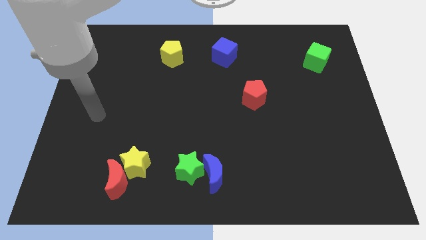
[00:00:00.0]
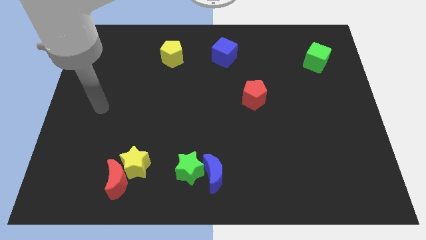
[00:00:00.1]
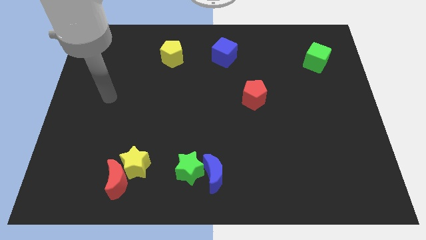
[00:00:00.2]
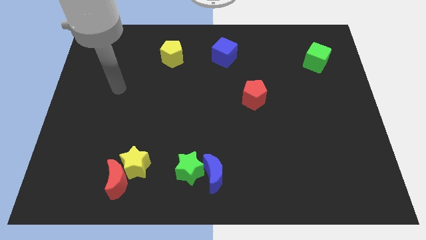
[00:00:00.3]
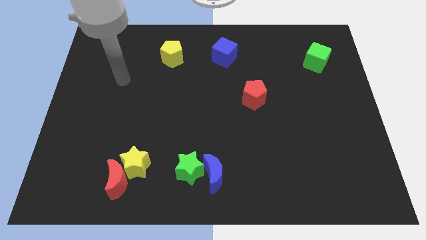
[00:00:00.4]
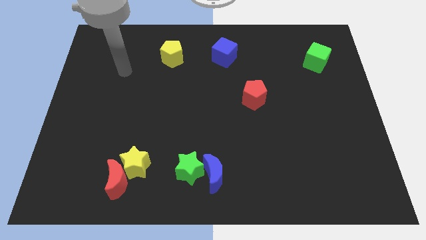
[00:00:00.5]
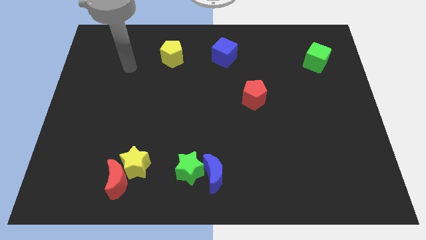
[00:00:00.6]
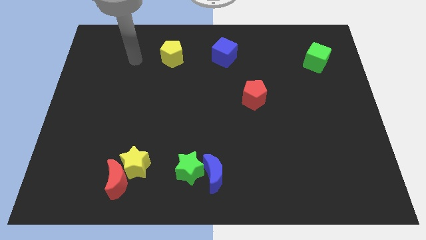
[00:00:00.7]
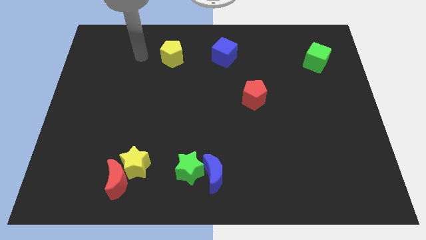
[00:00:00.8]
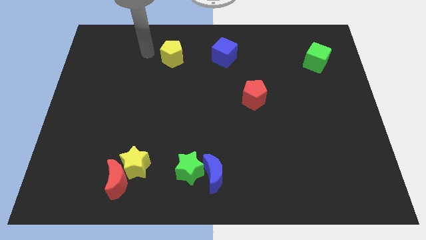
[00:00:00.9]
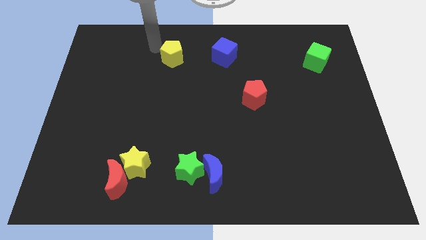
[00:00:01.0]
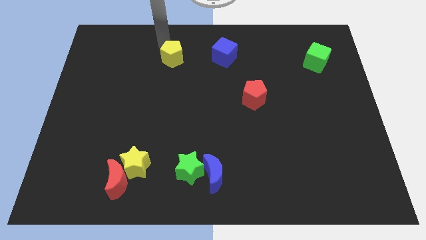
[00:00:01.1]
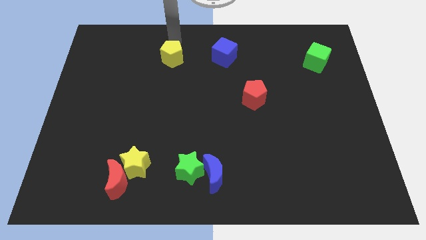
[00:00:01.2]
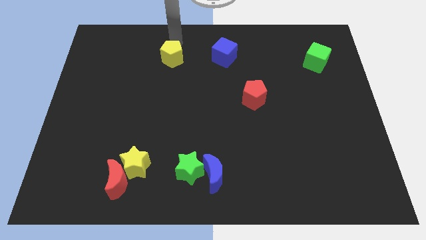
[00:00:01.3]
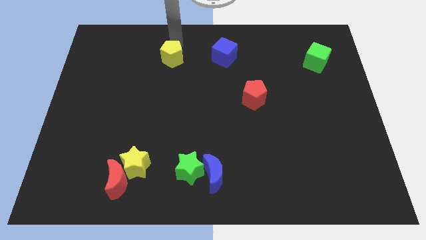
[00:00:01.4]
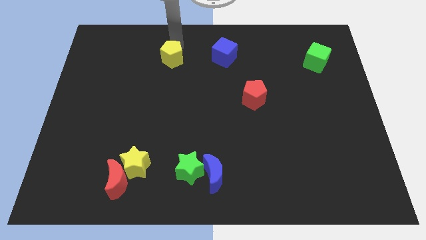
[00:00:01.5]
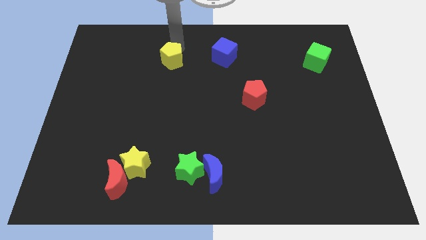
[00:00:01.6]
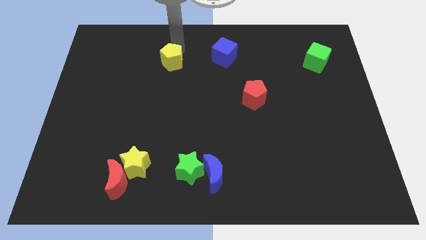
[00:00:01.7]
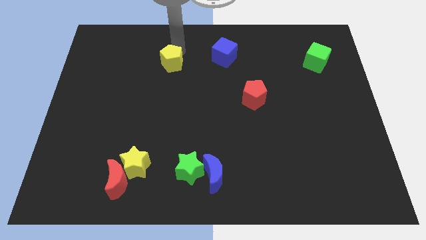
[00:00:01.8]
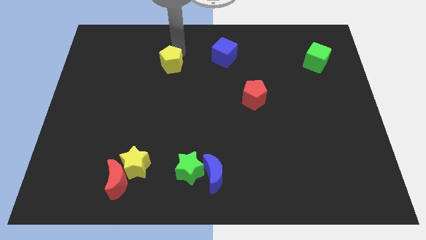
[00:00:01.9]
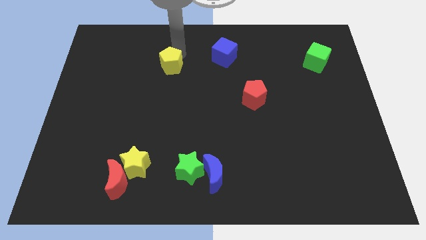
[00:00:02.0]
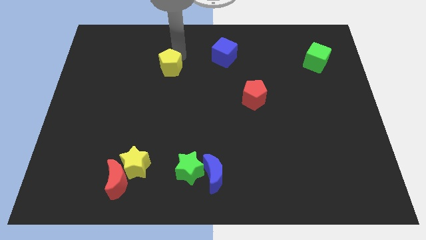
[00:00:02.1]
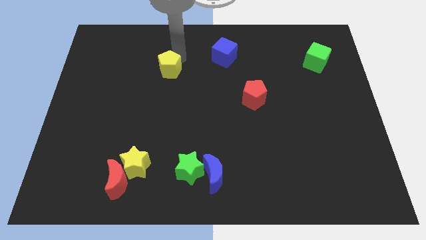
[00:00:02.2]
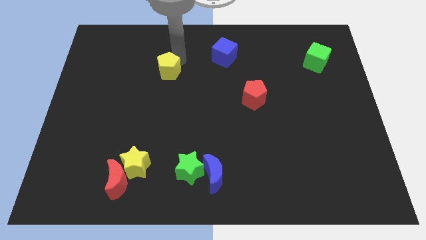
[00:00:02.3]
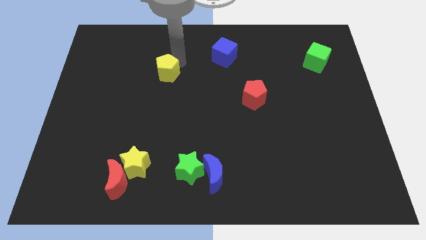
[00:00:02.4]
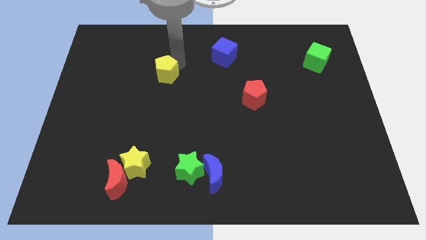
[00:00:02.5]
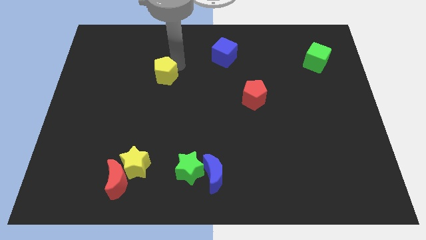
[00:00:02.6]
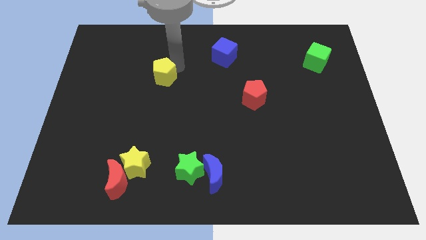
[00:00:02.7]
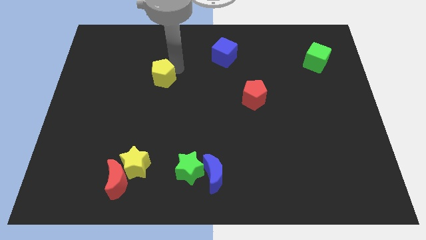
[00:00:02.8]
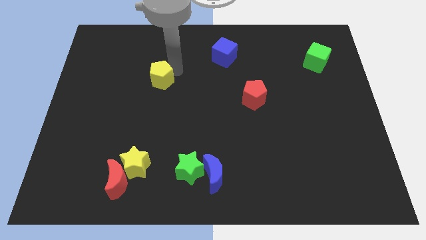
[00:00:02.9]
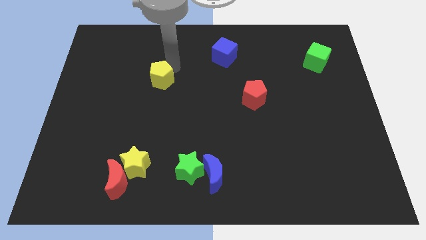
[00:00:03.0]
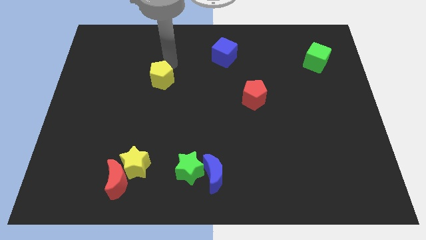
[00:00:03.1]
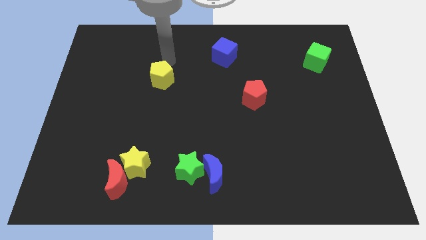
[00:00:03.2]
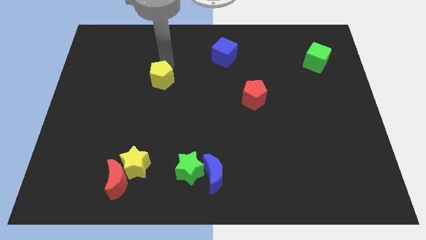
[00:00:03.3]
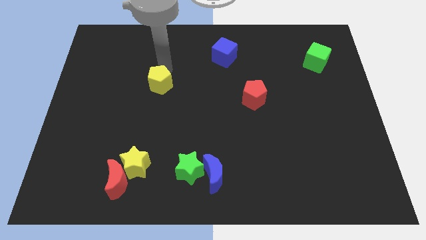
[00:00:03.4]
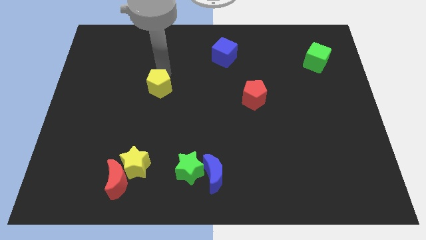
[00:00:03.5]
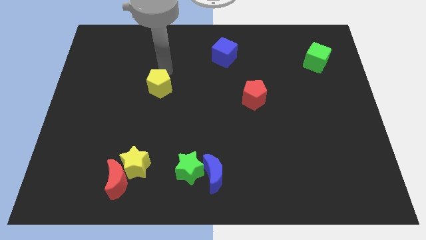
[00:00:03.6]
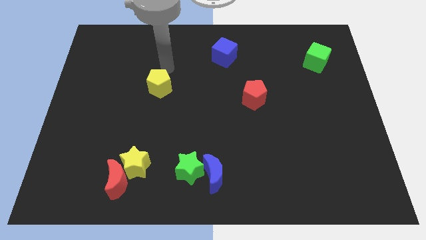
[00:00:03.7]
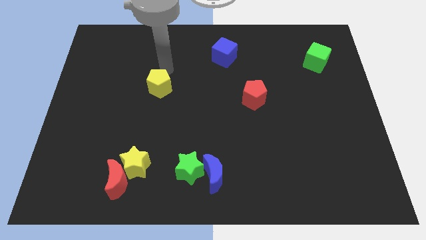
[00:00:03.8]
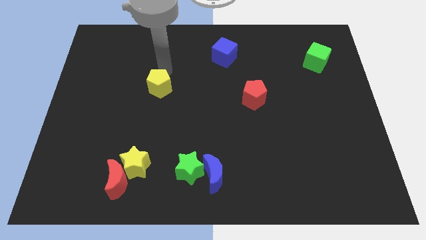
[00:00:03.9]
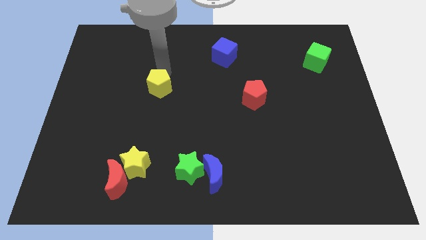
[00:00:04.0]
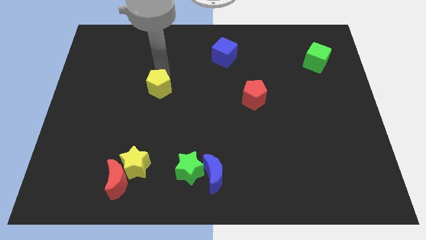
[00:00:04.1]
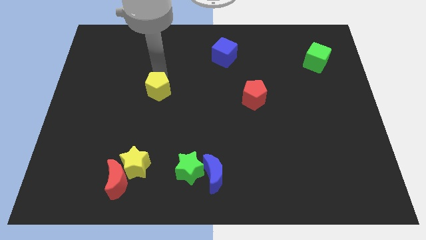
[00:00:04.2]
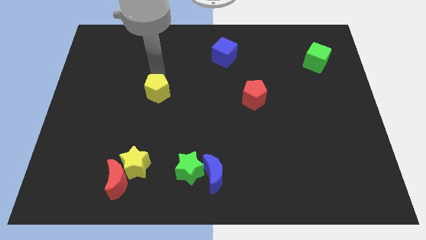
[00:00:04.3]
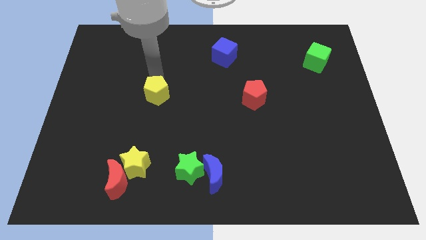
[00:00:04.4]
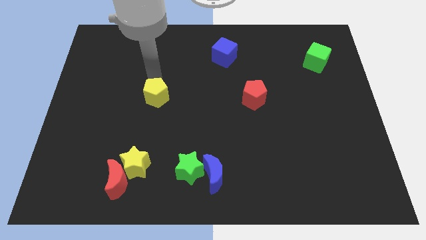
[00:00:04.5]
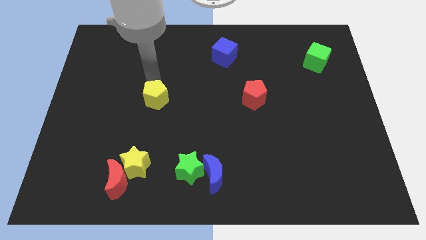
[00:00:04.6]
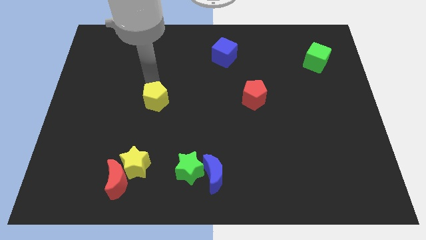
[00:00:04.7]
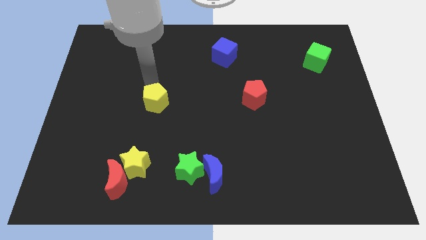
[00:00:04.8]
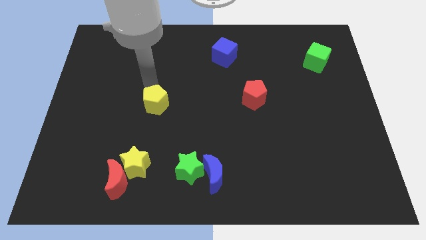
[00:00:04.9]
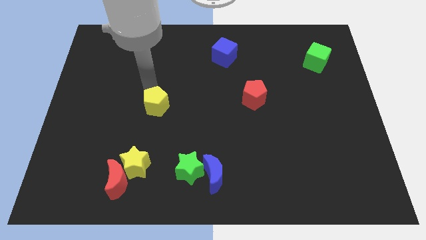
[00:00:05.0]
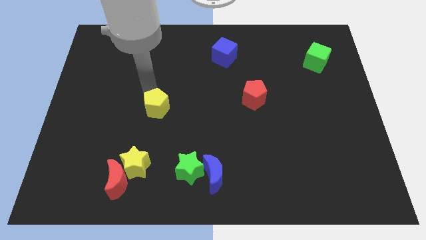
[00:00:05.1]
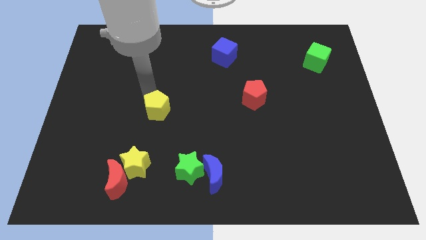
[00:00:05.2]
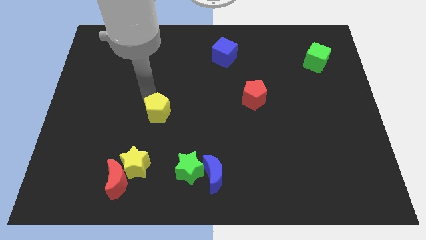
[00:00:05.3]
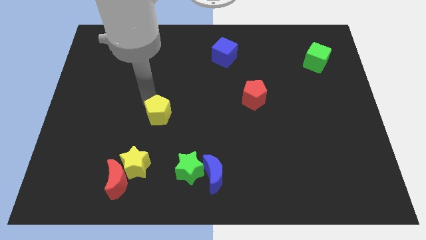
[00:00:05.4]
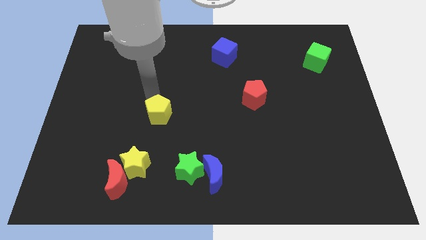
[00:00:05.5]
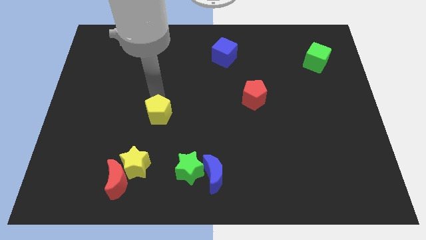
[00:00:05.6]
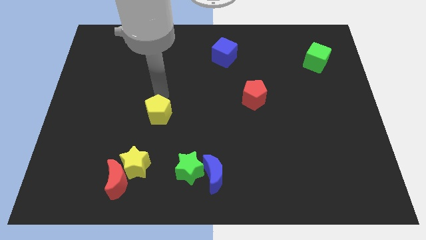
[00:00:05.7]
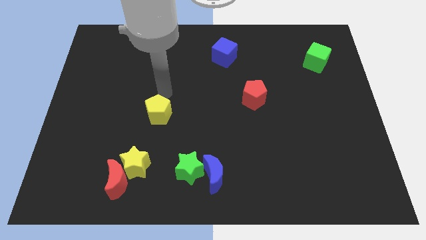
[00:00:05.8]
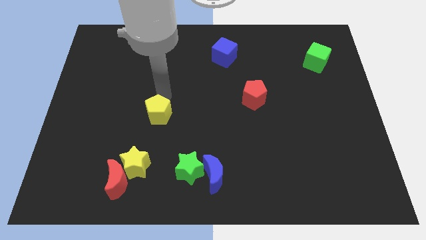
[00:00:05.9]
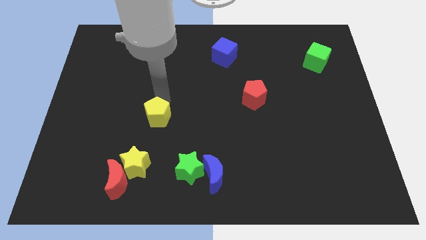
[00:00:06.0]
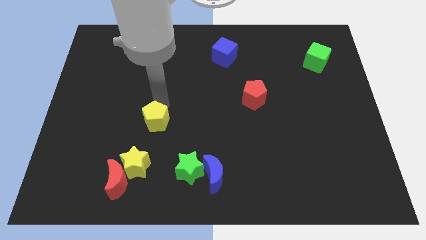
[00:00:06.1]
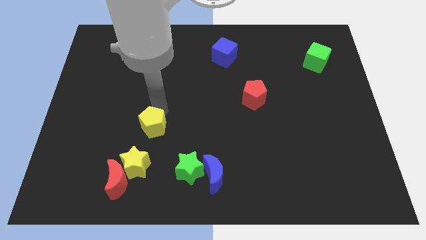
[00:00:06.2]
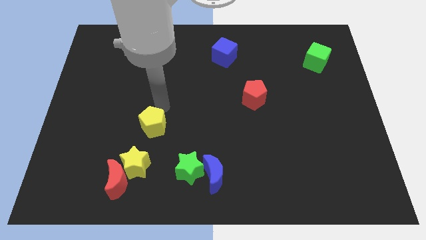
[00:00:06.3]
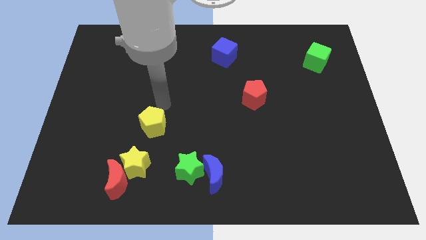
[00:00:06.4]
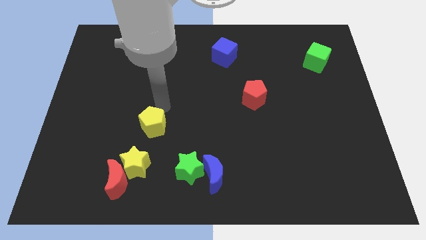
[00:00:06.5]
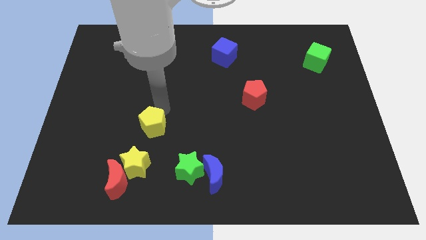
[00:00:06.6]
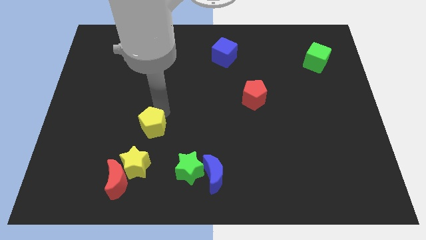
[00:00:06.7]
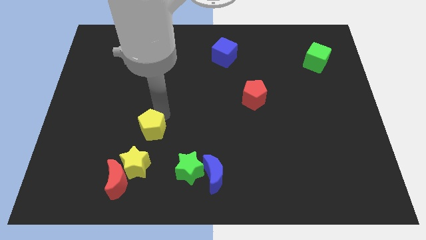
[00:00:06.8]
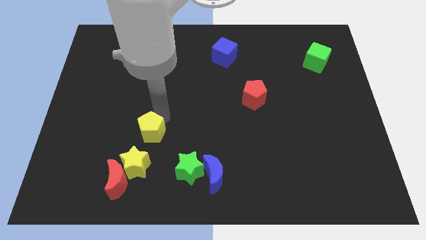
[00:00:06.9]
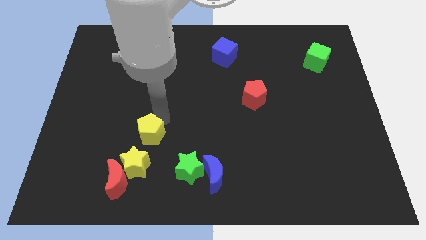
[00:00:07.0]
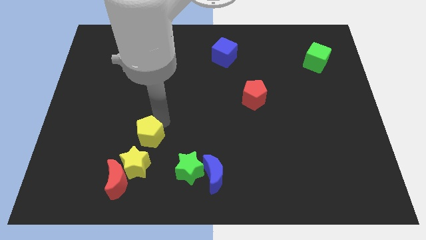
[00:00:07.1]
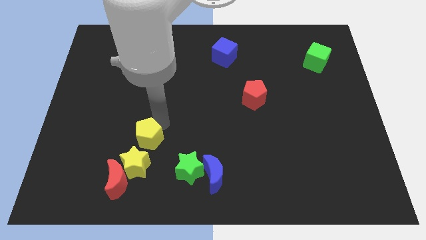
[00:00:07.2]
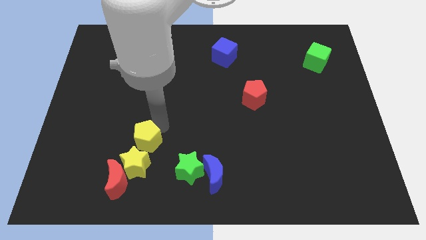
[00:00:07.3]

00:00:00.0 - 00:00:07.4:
move the yellow pentagon towards the yellow star
